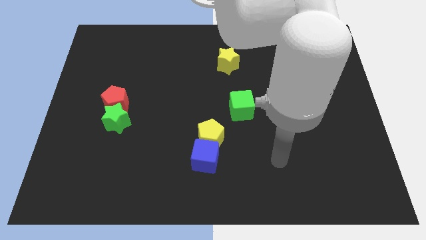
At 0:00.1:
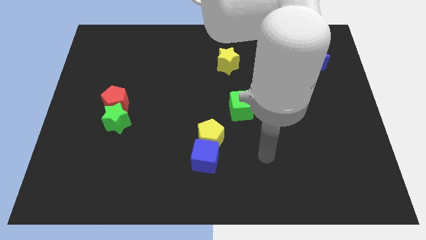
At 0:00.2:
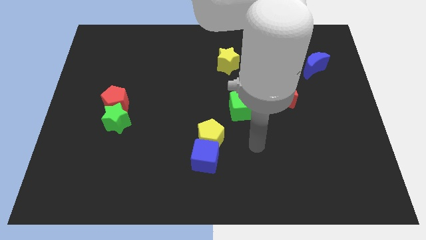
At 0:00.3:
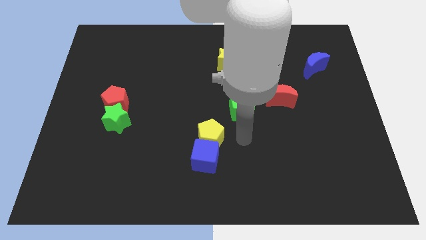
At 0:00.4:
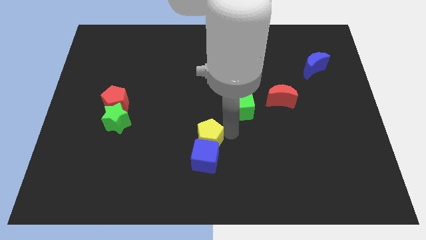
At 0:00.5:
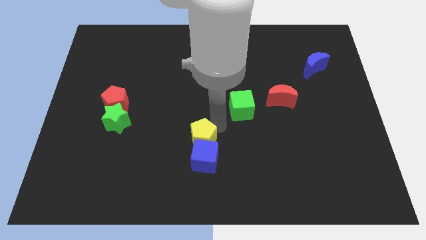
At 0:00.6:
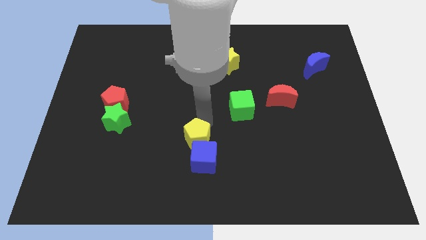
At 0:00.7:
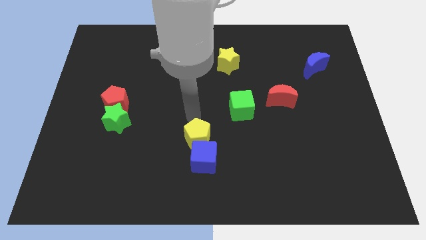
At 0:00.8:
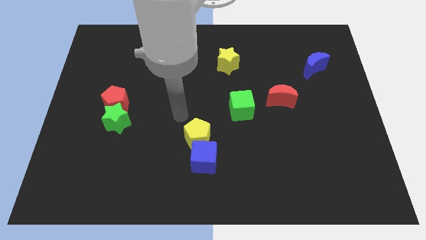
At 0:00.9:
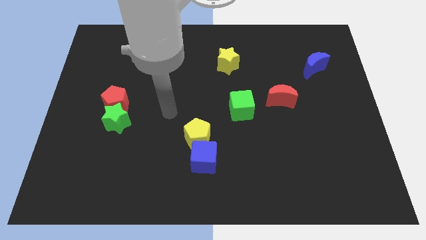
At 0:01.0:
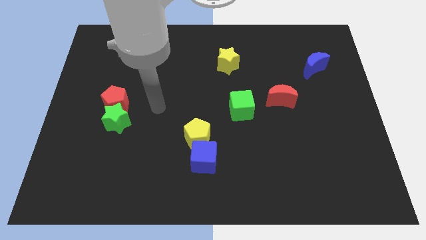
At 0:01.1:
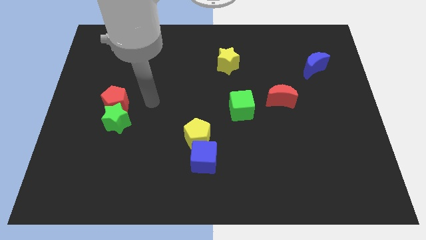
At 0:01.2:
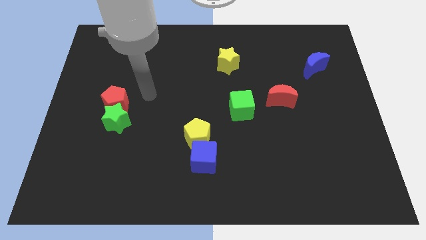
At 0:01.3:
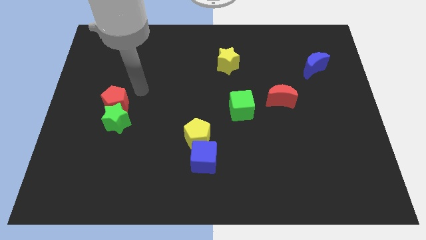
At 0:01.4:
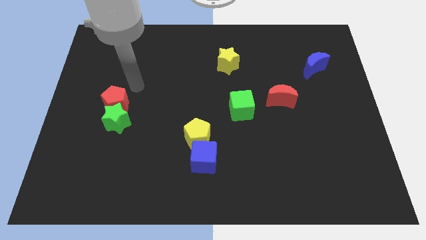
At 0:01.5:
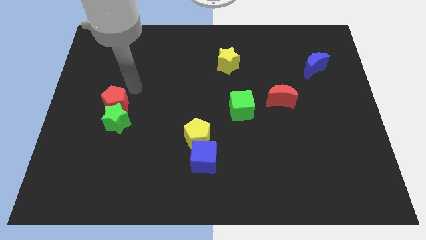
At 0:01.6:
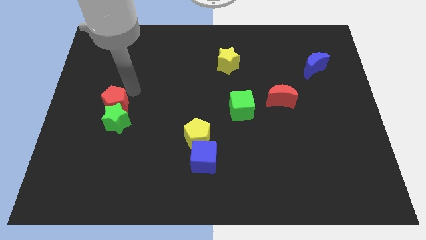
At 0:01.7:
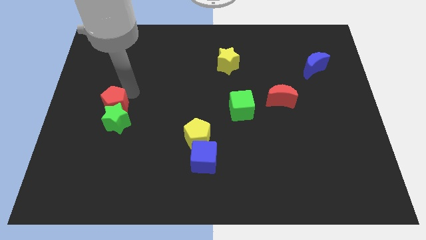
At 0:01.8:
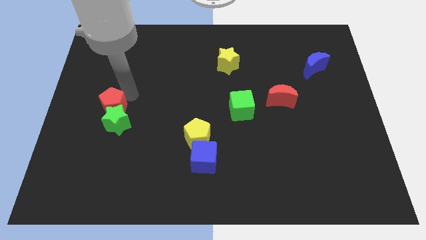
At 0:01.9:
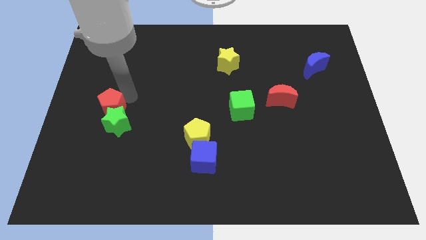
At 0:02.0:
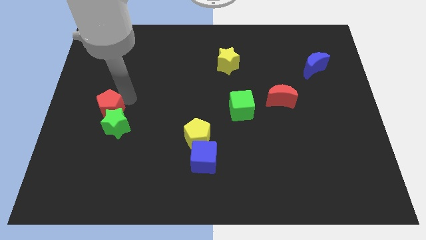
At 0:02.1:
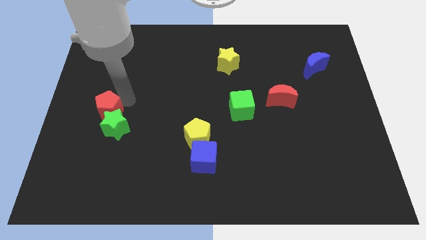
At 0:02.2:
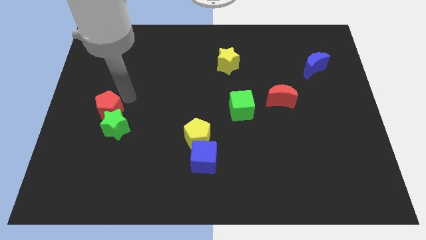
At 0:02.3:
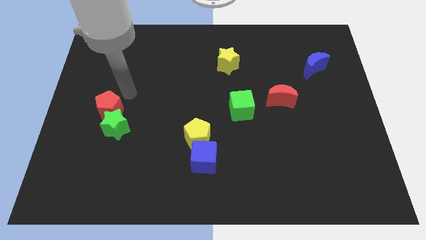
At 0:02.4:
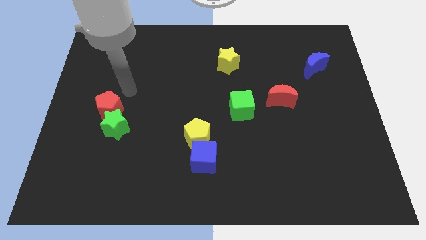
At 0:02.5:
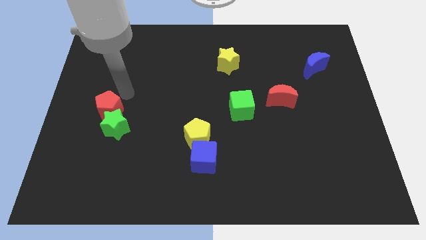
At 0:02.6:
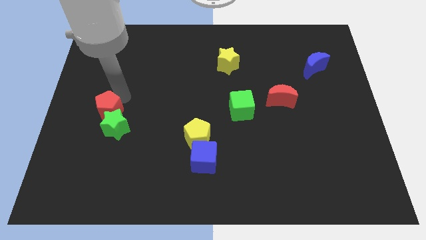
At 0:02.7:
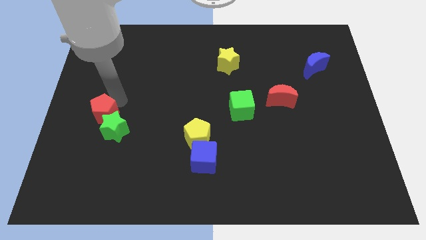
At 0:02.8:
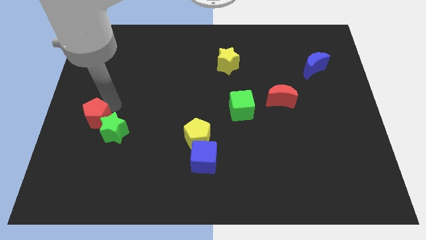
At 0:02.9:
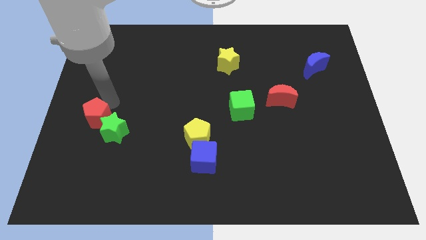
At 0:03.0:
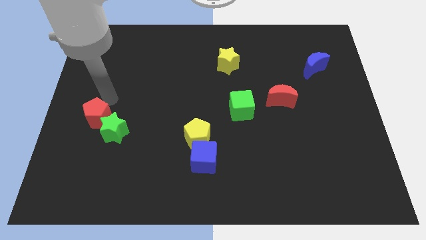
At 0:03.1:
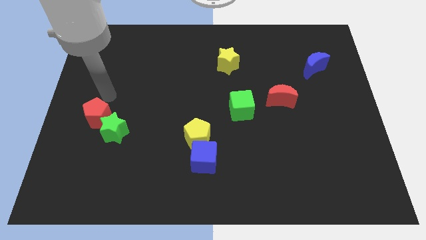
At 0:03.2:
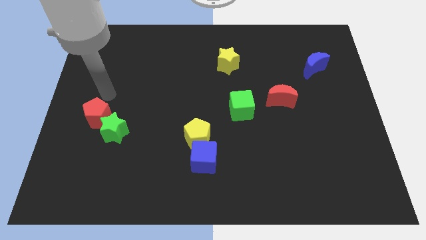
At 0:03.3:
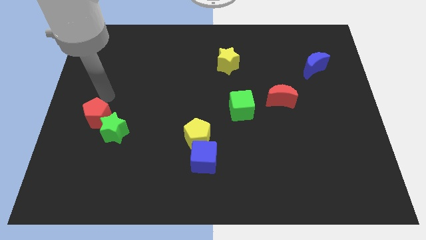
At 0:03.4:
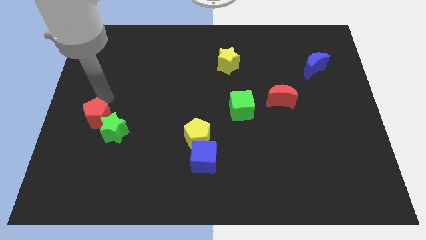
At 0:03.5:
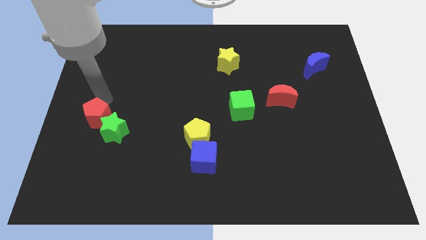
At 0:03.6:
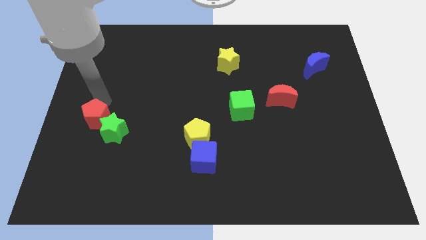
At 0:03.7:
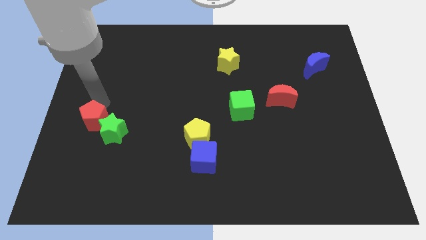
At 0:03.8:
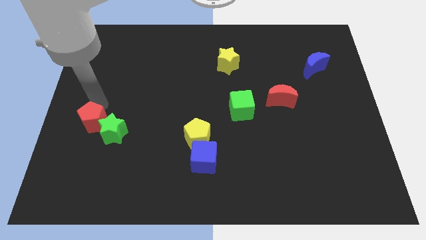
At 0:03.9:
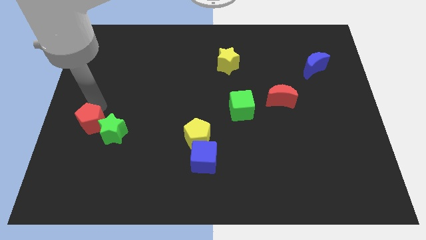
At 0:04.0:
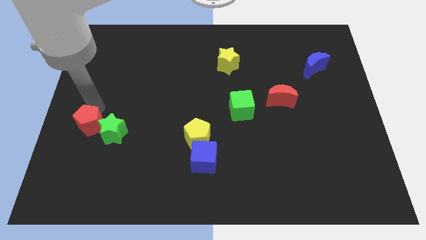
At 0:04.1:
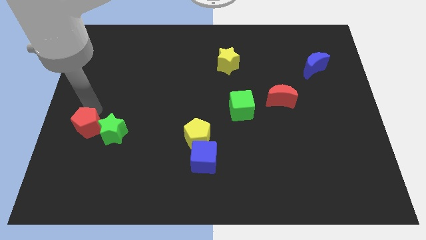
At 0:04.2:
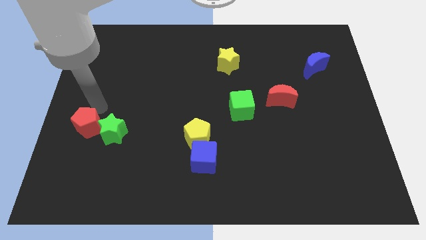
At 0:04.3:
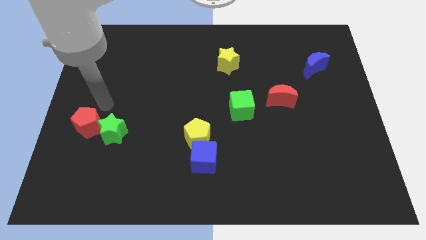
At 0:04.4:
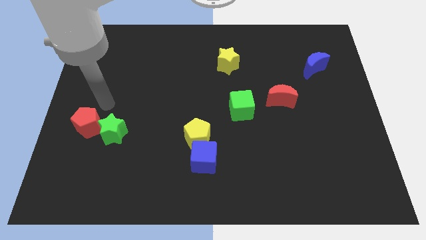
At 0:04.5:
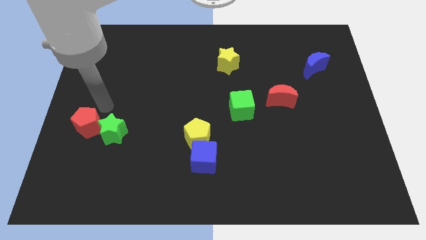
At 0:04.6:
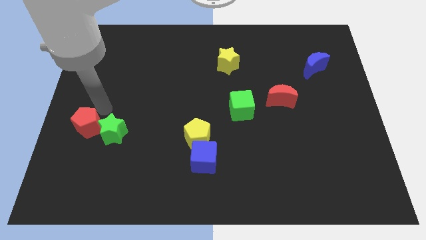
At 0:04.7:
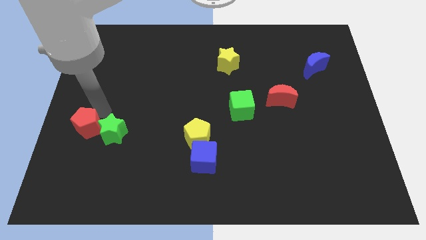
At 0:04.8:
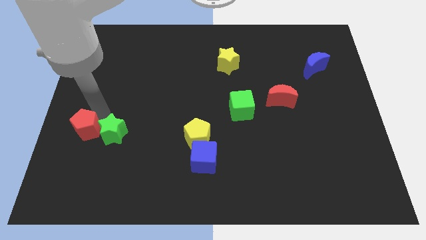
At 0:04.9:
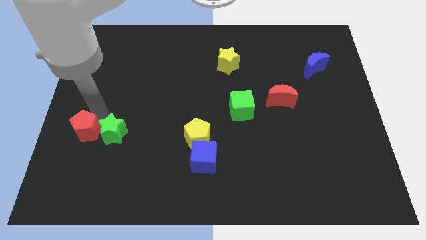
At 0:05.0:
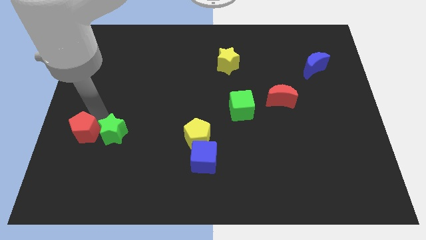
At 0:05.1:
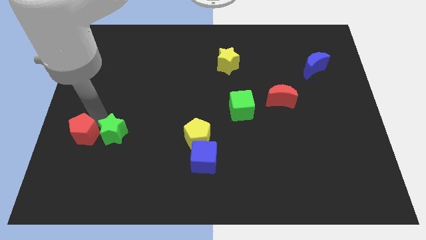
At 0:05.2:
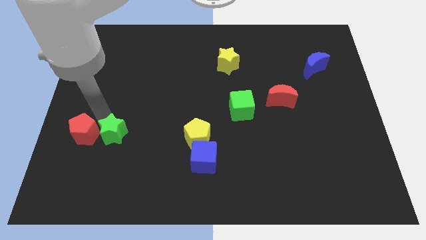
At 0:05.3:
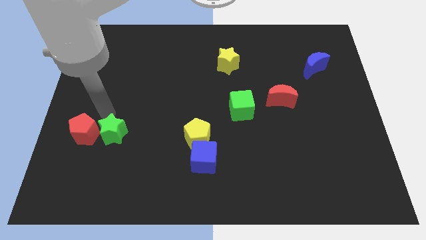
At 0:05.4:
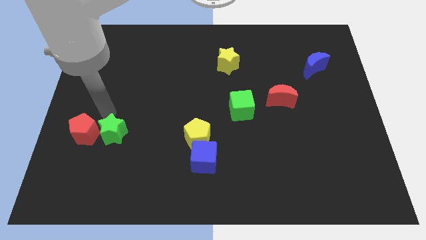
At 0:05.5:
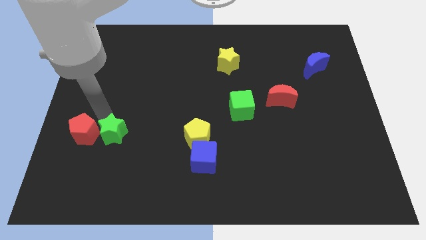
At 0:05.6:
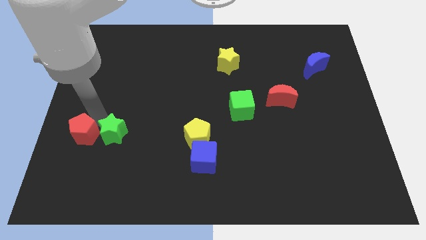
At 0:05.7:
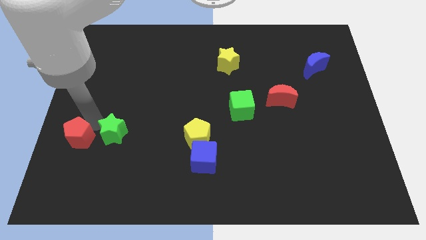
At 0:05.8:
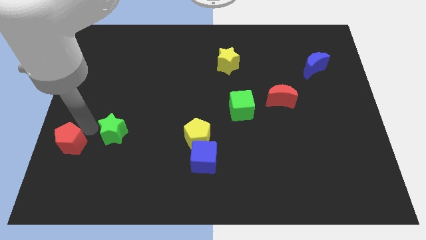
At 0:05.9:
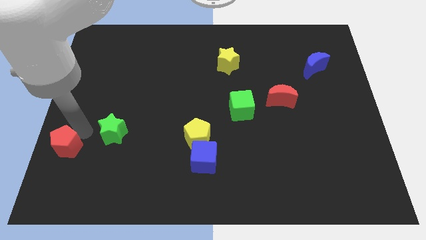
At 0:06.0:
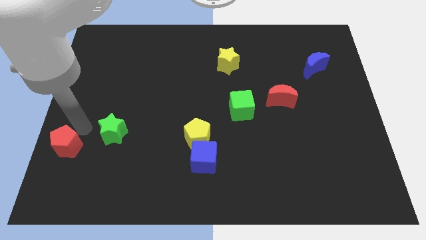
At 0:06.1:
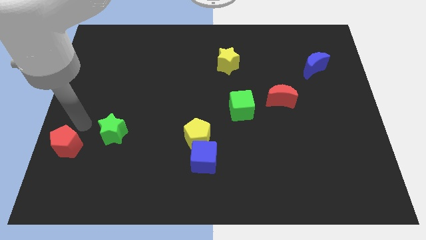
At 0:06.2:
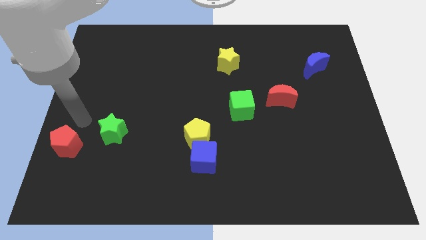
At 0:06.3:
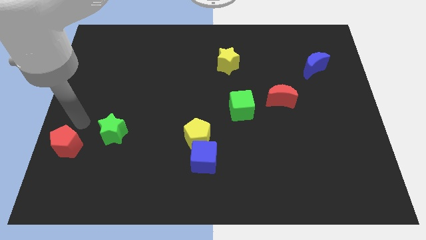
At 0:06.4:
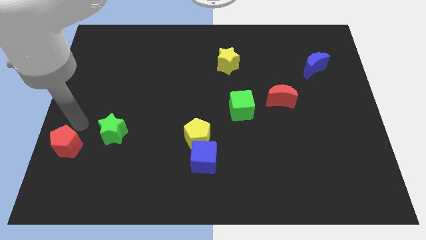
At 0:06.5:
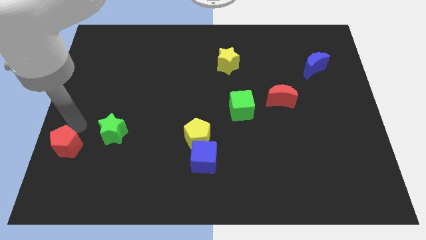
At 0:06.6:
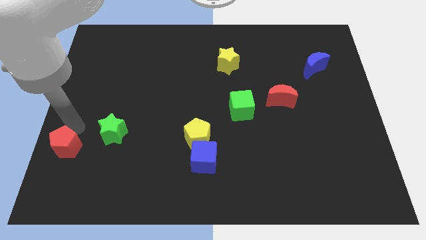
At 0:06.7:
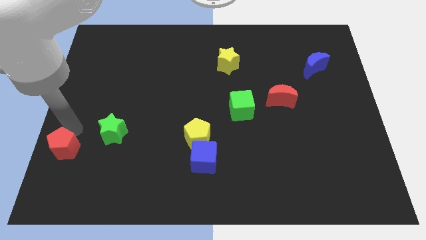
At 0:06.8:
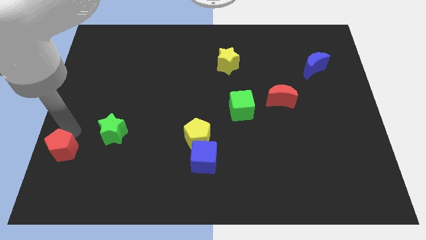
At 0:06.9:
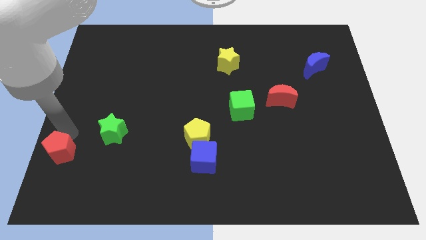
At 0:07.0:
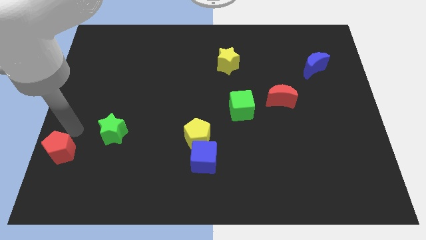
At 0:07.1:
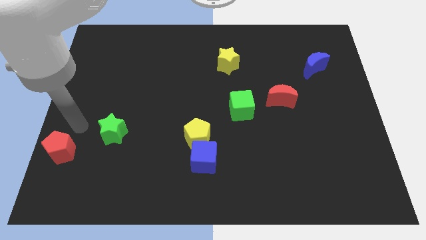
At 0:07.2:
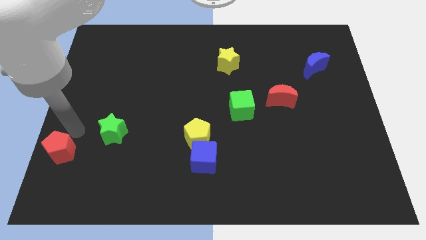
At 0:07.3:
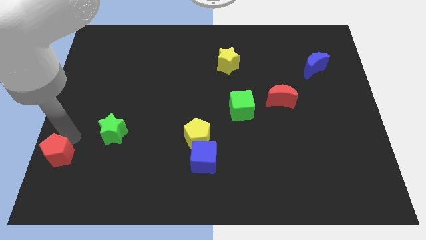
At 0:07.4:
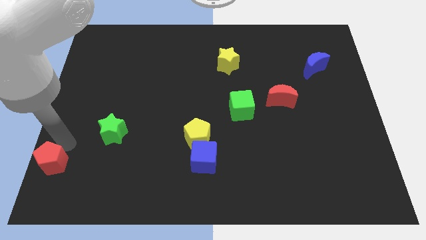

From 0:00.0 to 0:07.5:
push the red pentagon to the bottom left
